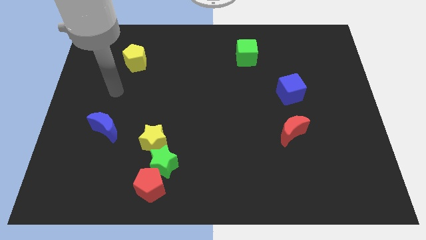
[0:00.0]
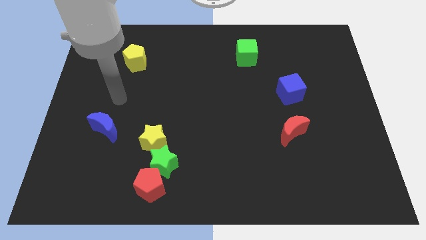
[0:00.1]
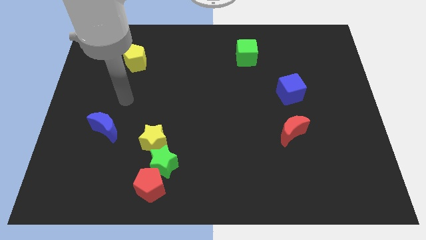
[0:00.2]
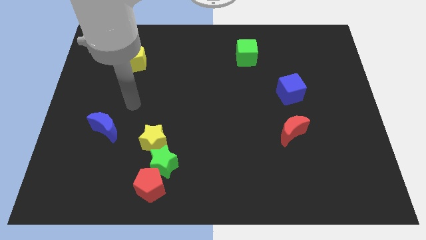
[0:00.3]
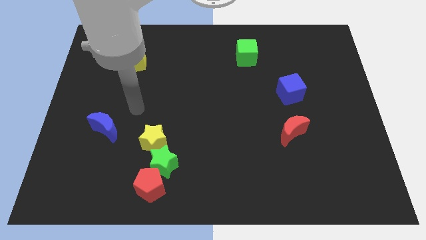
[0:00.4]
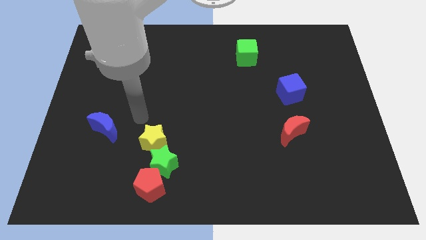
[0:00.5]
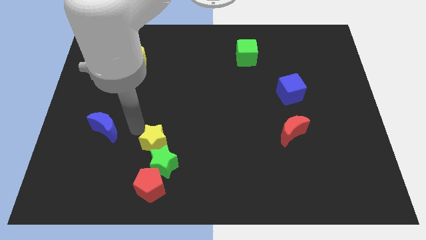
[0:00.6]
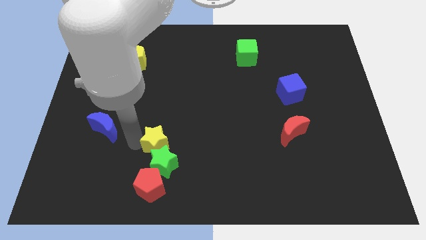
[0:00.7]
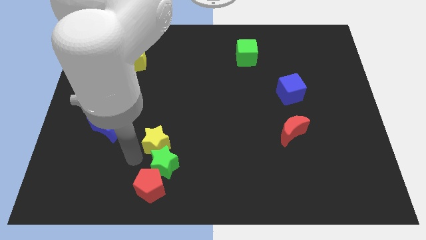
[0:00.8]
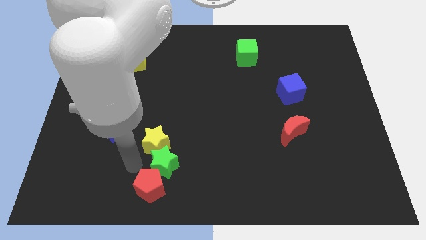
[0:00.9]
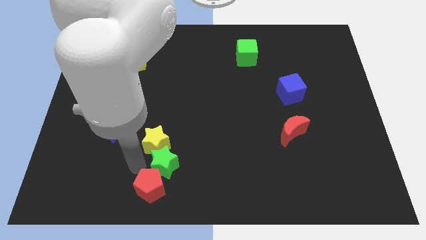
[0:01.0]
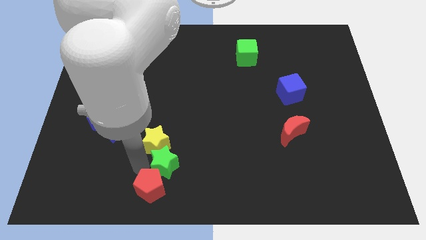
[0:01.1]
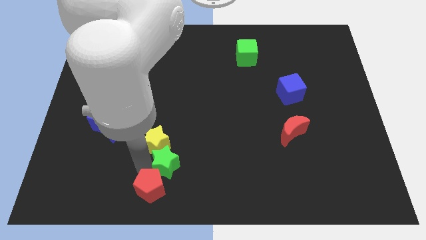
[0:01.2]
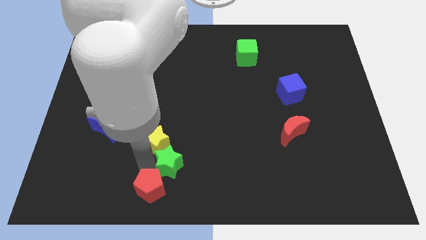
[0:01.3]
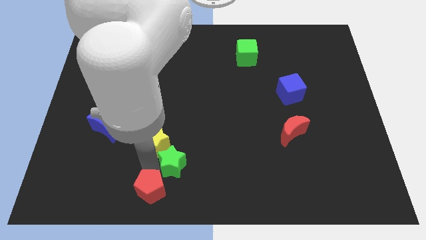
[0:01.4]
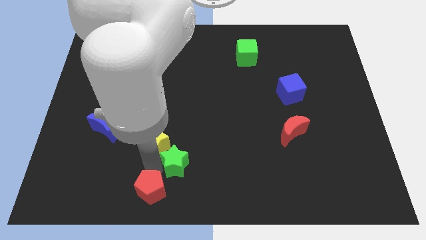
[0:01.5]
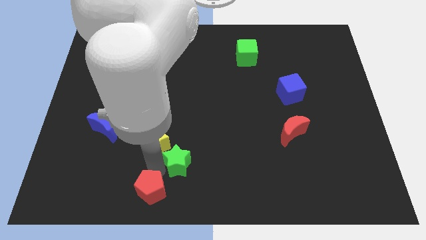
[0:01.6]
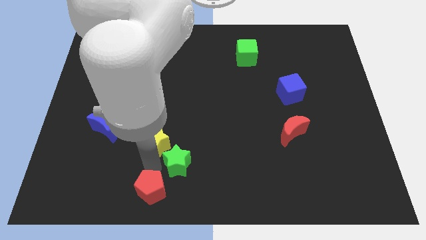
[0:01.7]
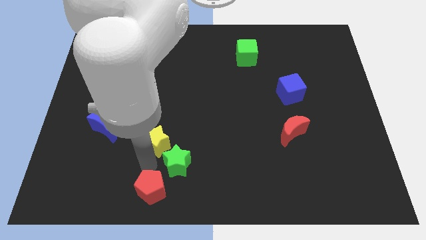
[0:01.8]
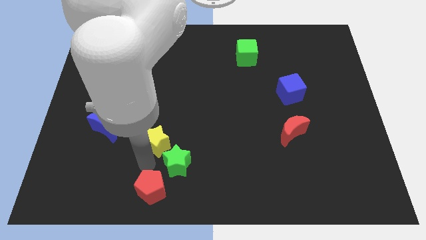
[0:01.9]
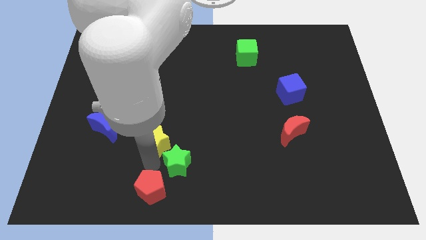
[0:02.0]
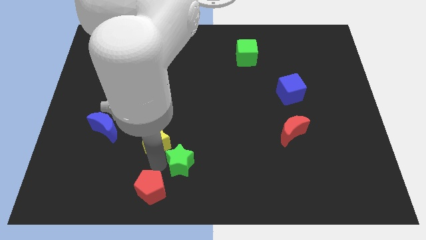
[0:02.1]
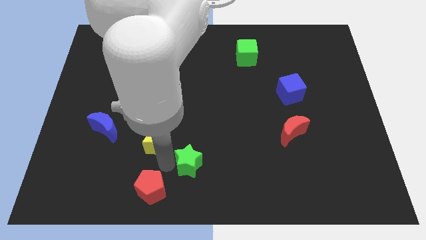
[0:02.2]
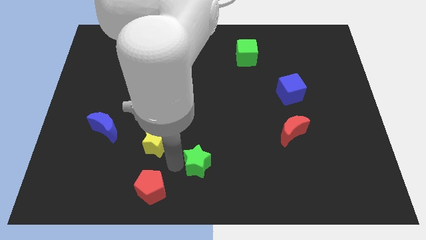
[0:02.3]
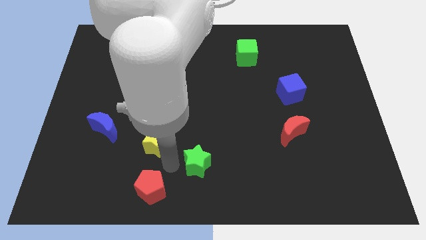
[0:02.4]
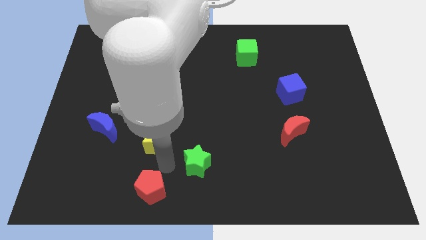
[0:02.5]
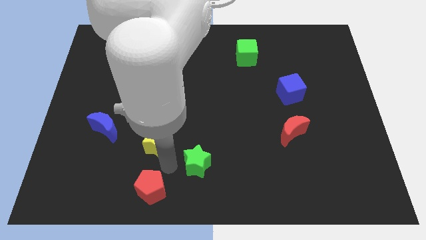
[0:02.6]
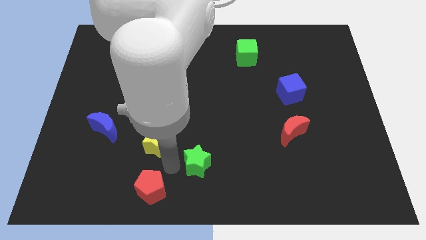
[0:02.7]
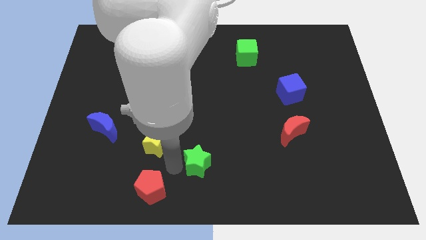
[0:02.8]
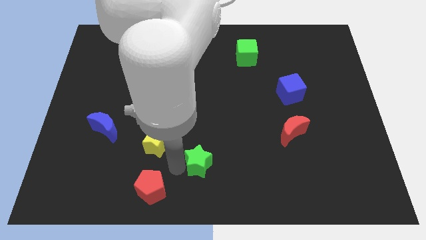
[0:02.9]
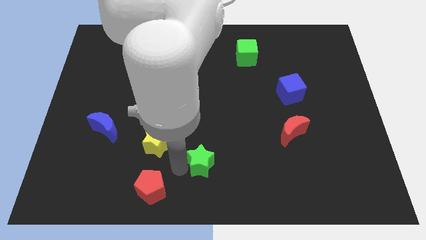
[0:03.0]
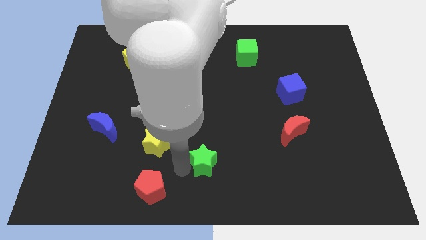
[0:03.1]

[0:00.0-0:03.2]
move the green star away from the red pentagon and yellow star

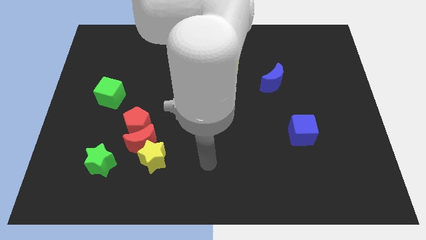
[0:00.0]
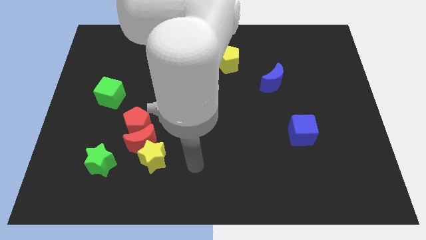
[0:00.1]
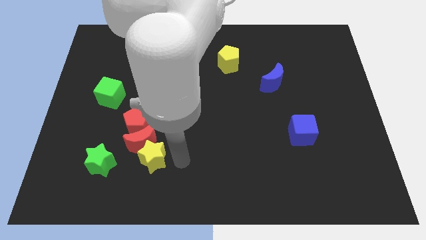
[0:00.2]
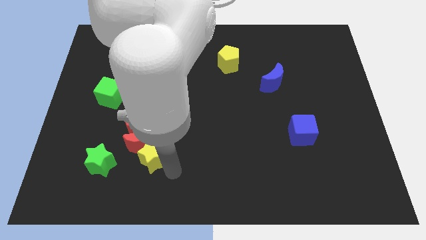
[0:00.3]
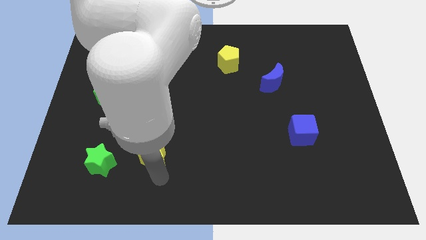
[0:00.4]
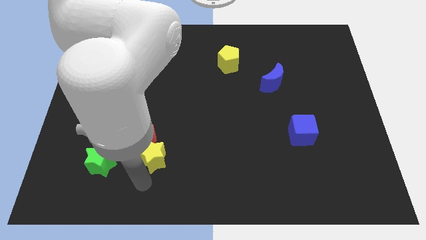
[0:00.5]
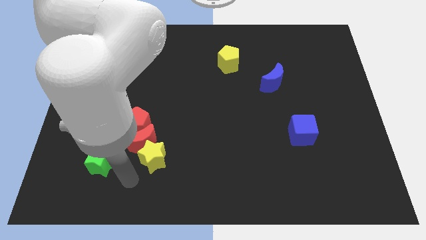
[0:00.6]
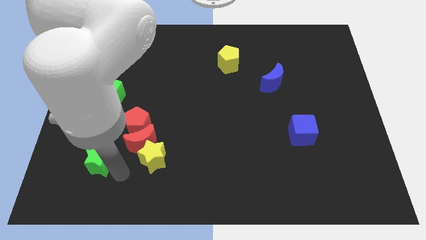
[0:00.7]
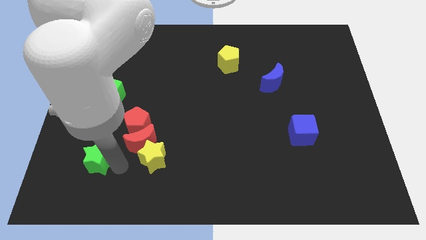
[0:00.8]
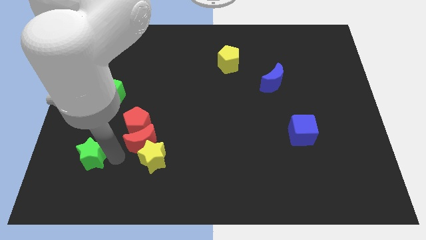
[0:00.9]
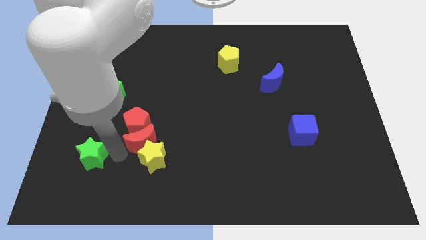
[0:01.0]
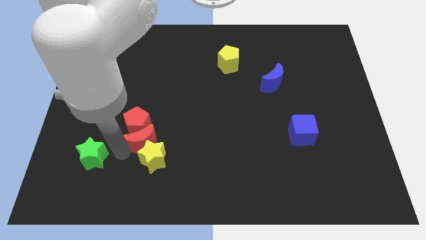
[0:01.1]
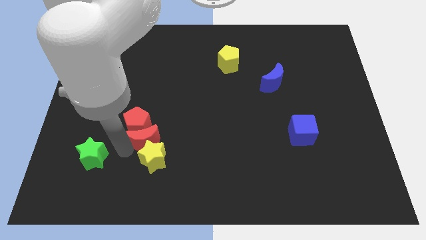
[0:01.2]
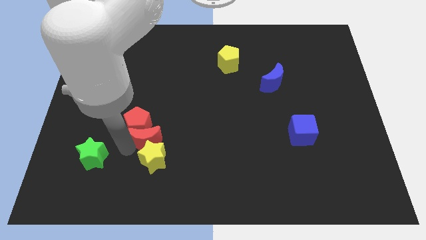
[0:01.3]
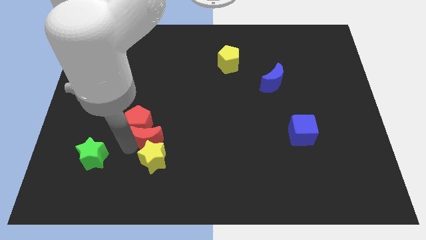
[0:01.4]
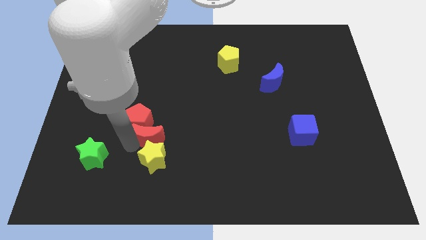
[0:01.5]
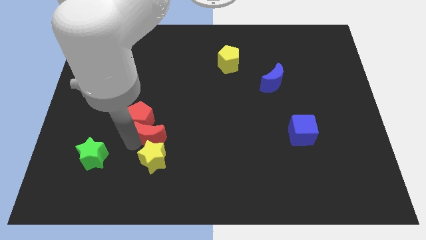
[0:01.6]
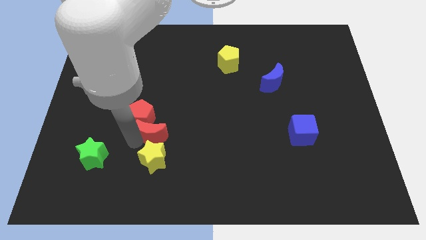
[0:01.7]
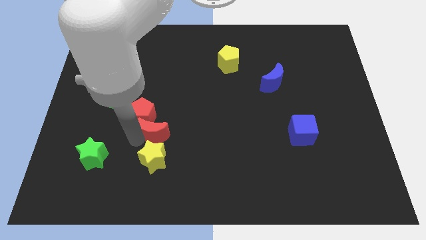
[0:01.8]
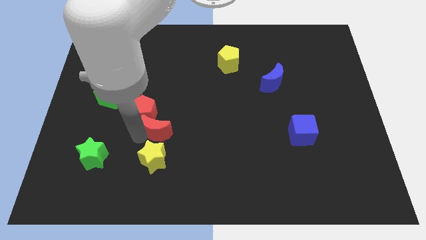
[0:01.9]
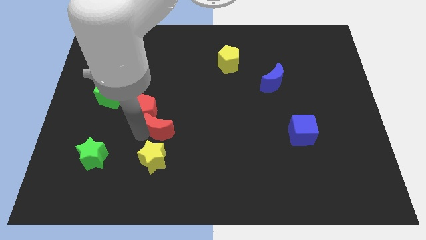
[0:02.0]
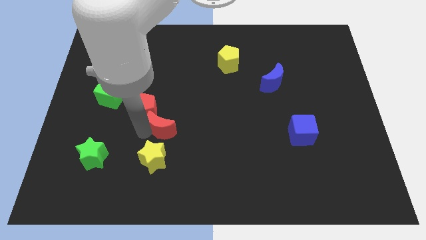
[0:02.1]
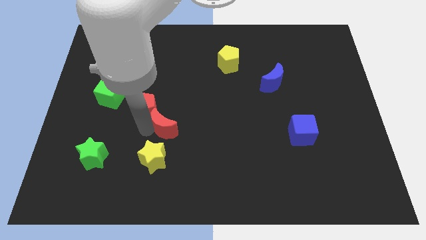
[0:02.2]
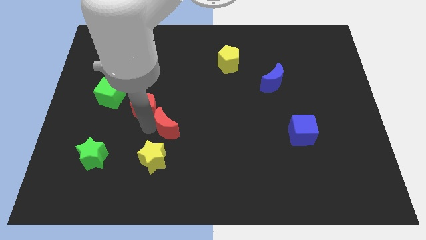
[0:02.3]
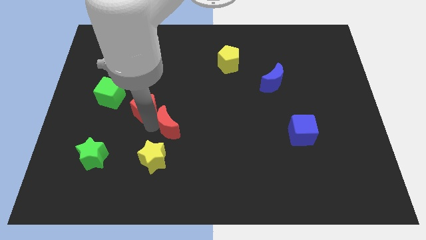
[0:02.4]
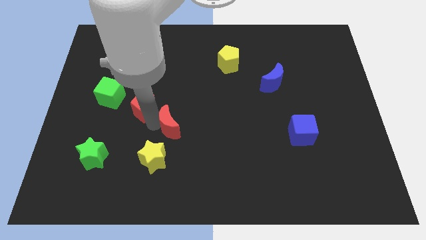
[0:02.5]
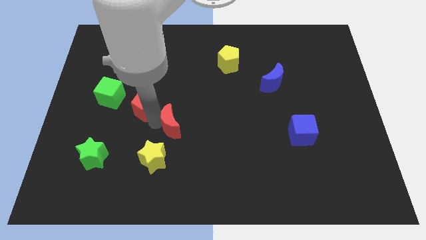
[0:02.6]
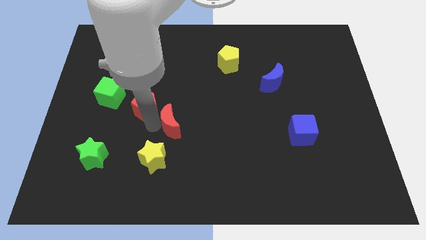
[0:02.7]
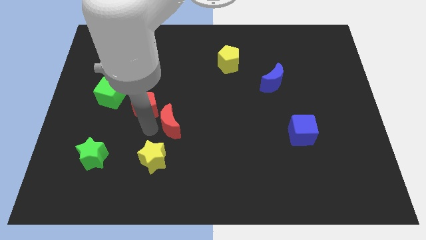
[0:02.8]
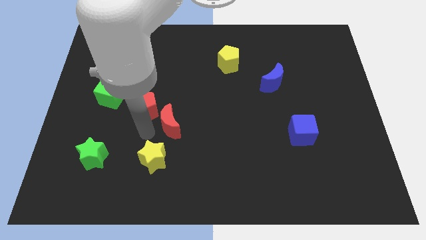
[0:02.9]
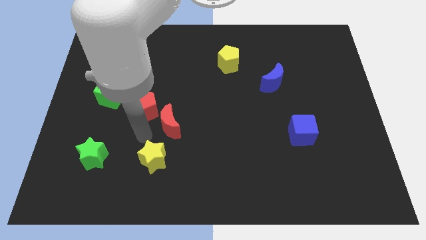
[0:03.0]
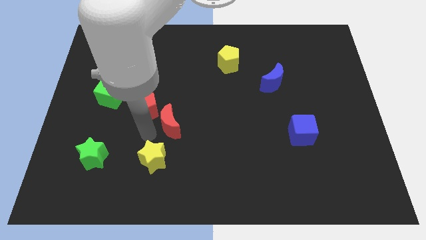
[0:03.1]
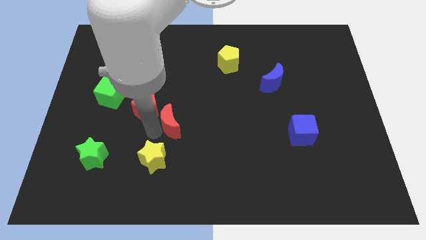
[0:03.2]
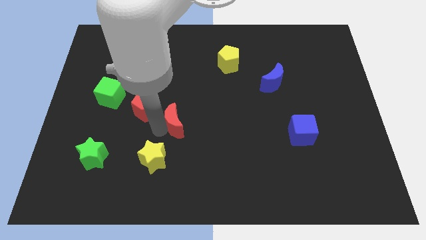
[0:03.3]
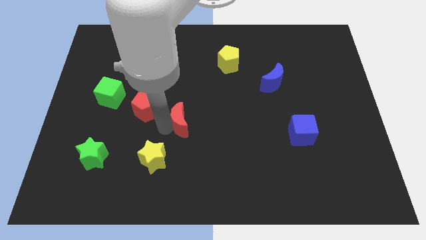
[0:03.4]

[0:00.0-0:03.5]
separate the red moon from the yellow star, red pentagon, and green star

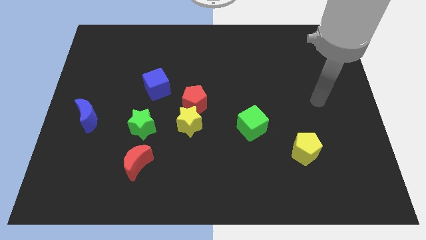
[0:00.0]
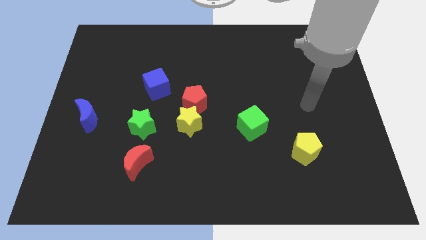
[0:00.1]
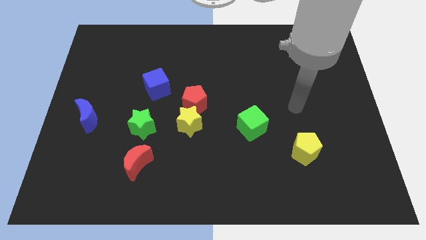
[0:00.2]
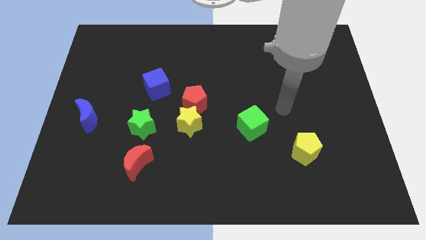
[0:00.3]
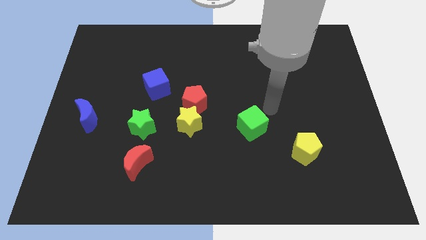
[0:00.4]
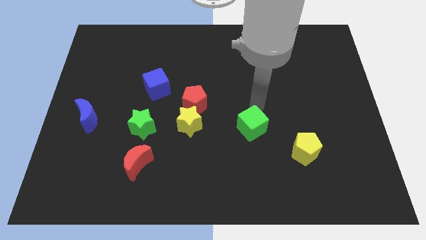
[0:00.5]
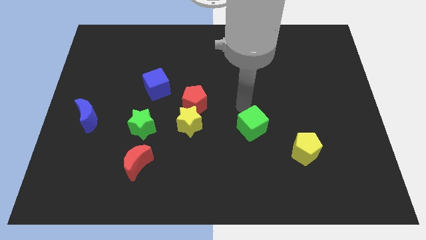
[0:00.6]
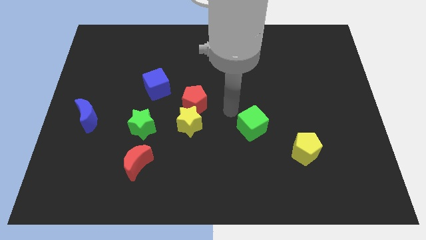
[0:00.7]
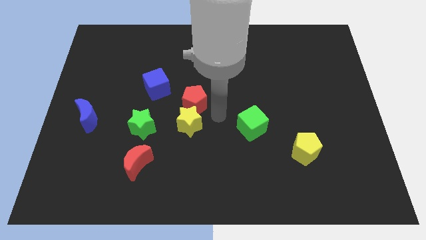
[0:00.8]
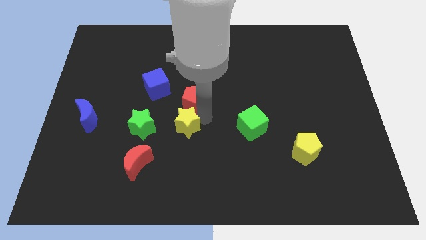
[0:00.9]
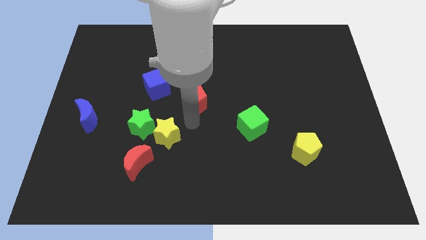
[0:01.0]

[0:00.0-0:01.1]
pull the red pentagon apart from the yellow star

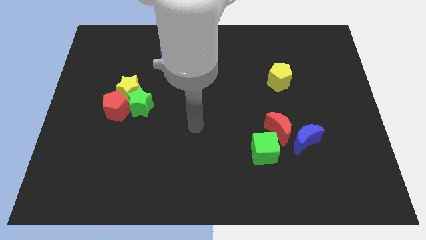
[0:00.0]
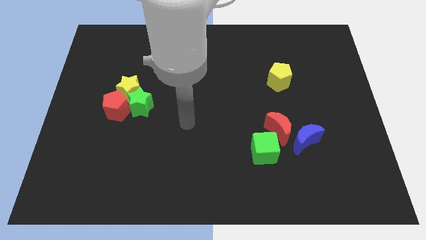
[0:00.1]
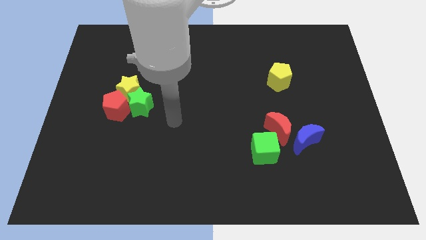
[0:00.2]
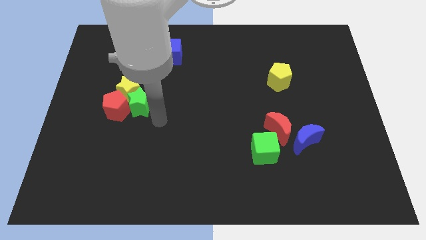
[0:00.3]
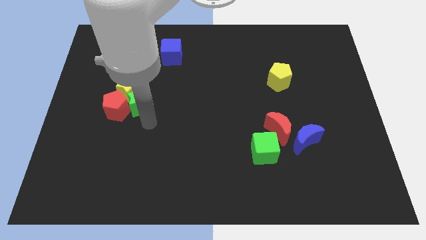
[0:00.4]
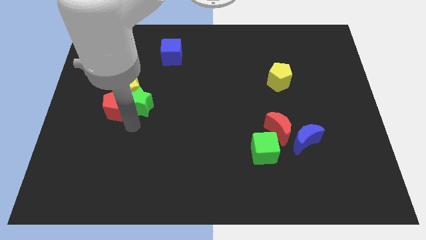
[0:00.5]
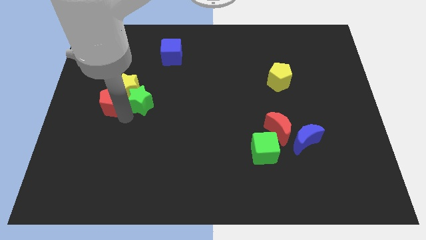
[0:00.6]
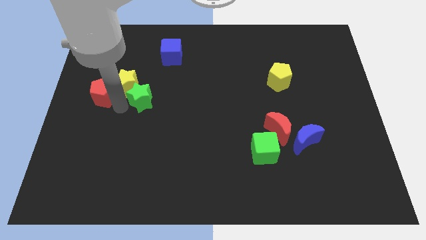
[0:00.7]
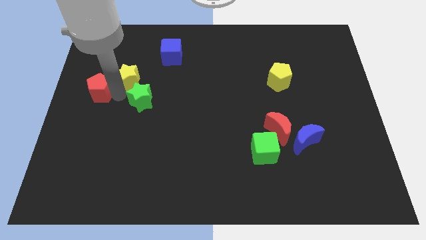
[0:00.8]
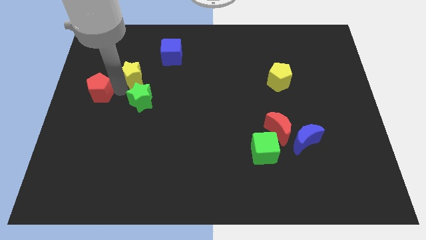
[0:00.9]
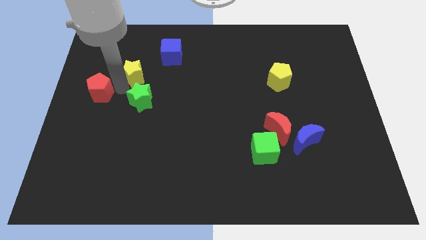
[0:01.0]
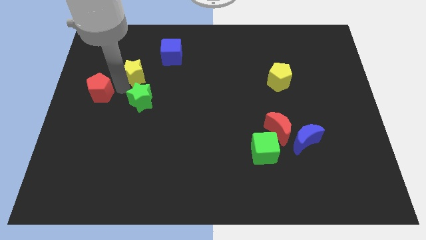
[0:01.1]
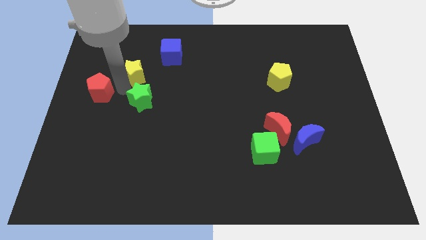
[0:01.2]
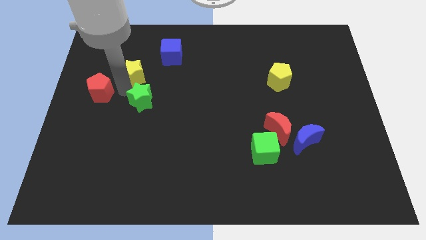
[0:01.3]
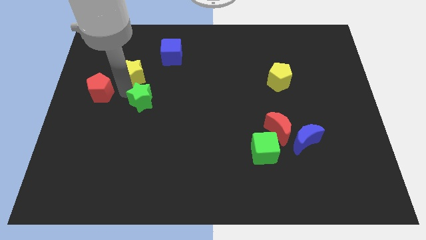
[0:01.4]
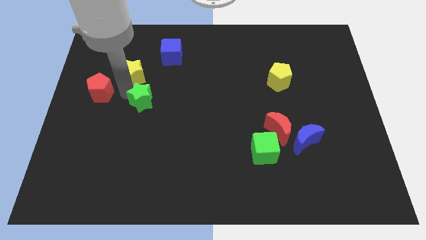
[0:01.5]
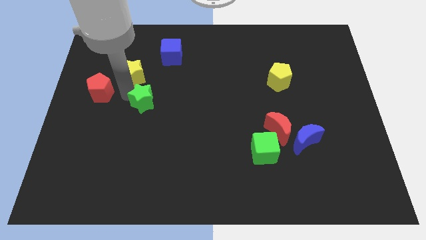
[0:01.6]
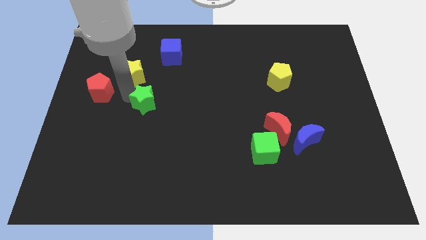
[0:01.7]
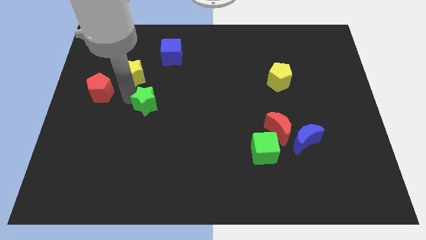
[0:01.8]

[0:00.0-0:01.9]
separate the green star from the yellow star and red pentagon
